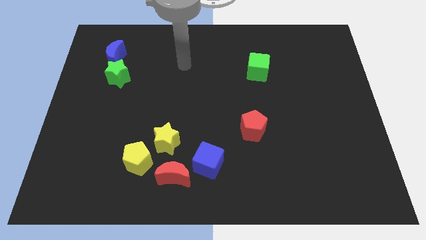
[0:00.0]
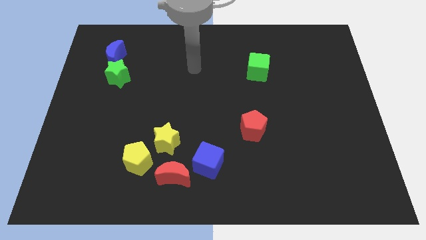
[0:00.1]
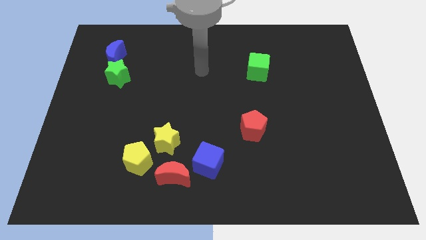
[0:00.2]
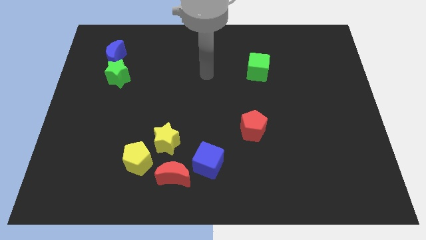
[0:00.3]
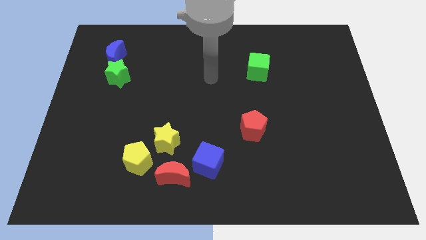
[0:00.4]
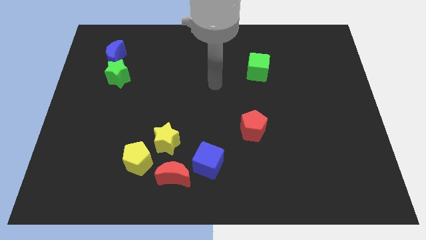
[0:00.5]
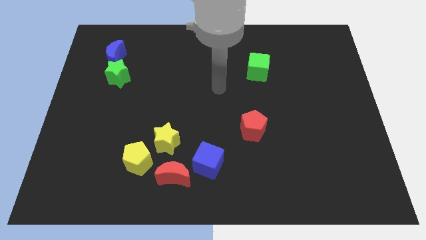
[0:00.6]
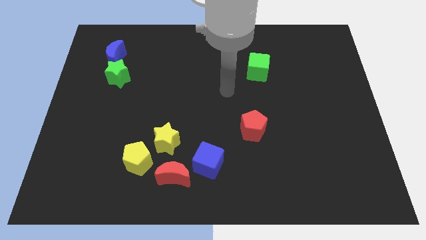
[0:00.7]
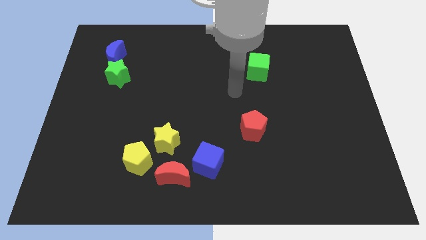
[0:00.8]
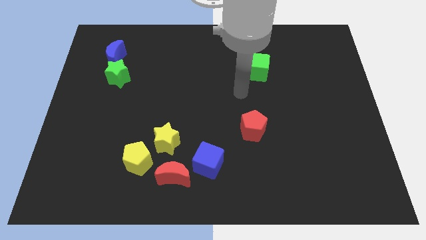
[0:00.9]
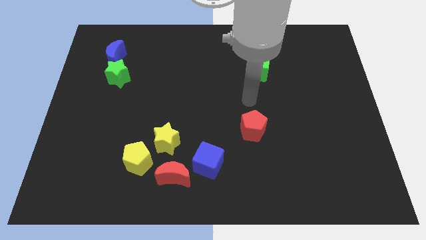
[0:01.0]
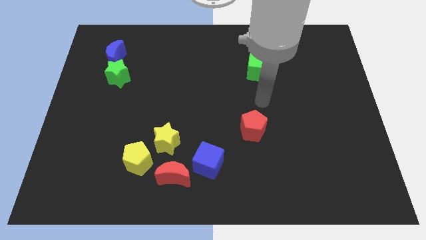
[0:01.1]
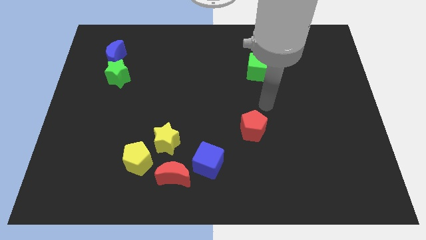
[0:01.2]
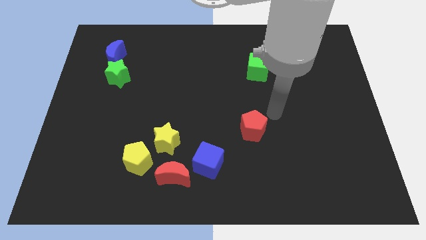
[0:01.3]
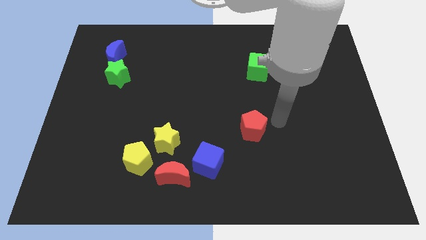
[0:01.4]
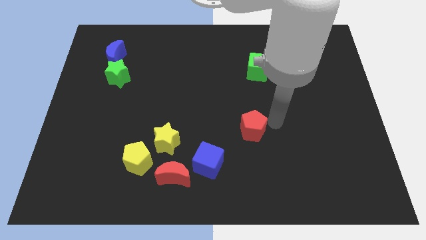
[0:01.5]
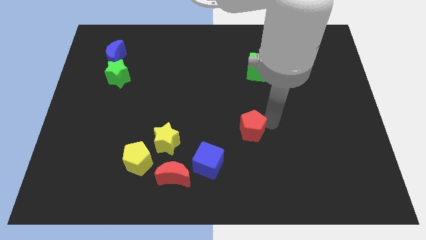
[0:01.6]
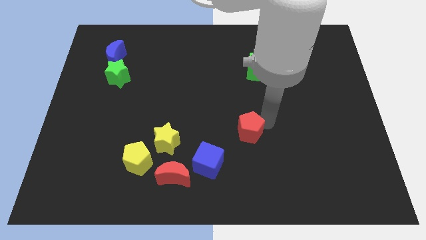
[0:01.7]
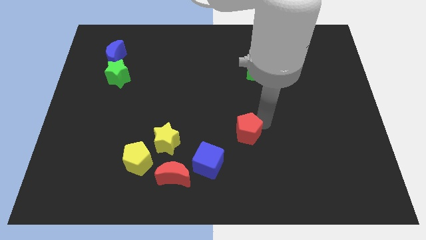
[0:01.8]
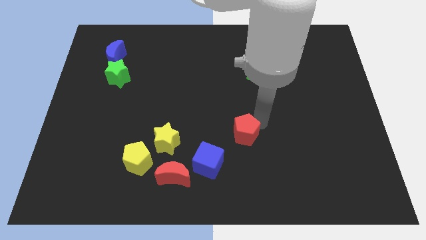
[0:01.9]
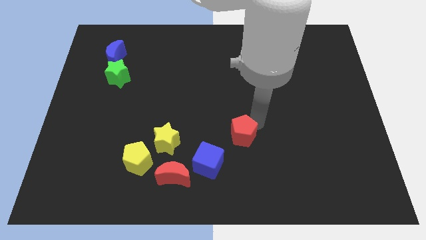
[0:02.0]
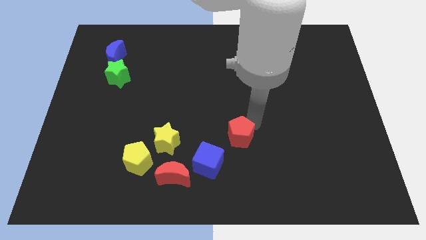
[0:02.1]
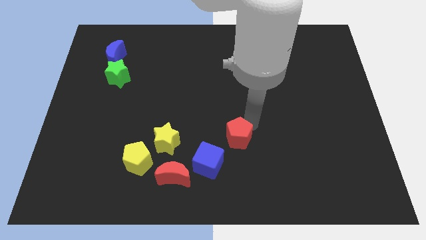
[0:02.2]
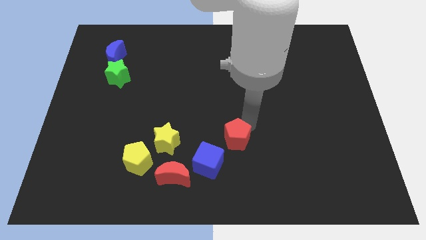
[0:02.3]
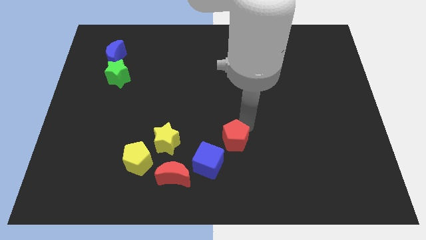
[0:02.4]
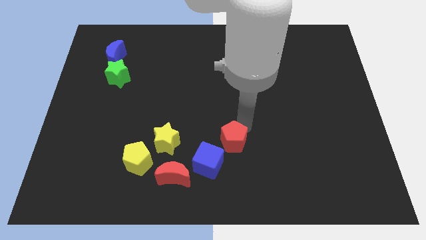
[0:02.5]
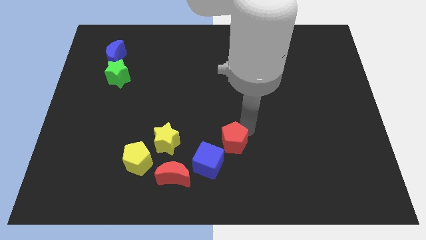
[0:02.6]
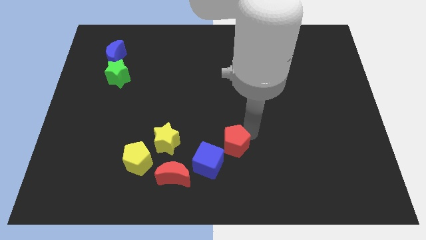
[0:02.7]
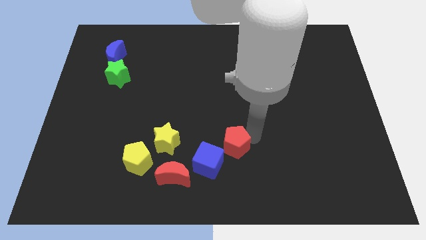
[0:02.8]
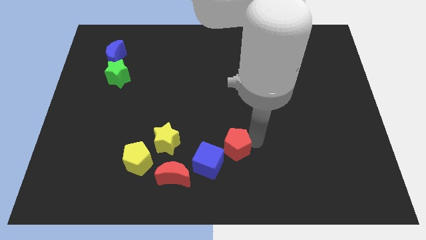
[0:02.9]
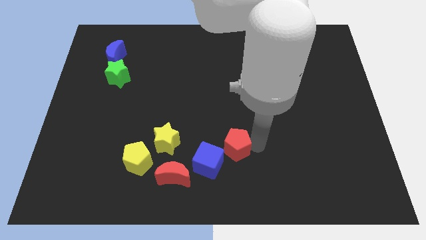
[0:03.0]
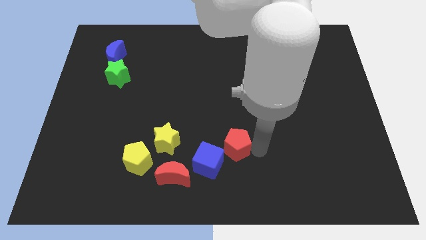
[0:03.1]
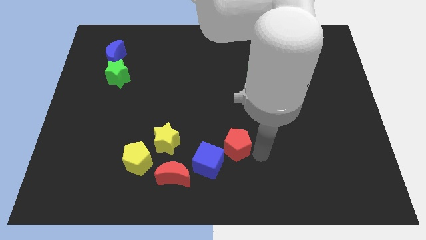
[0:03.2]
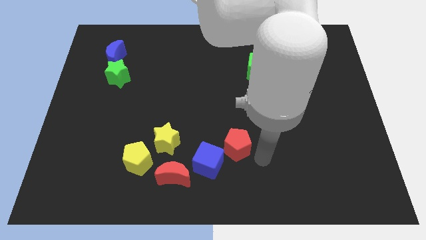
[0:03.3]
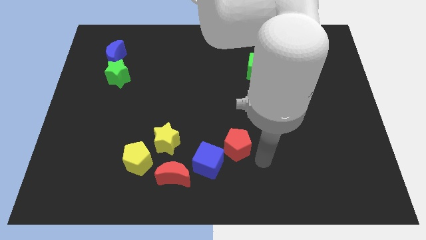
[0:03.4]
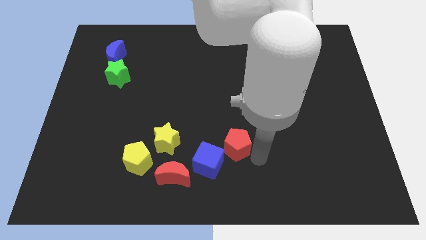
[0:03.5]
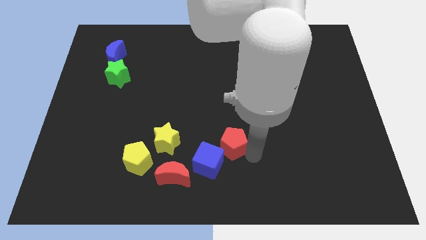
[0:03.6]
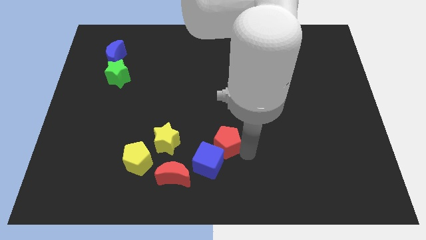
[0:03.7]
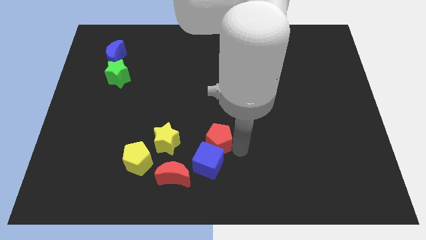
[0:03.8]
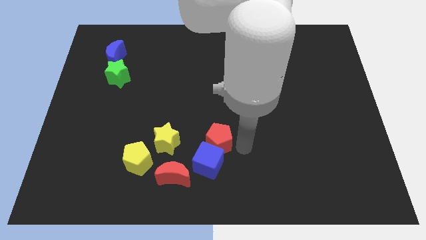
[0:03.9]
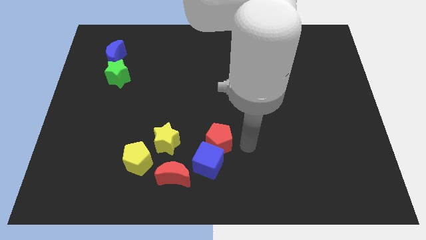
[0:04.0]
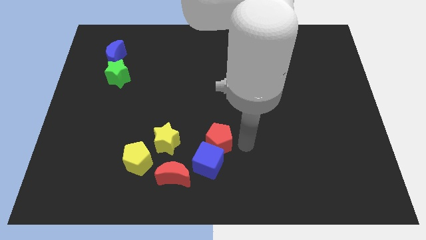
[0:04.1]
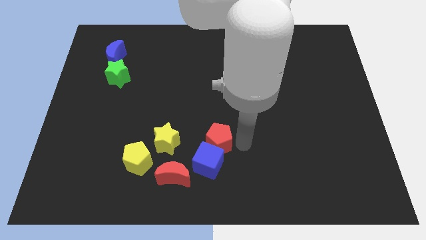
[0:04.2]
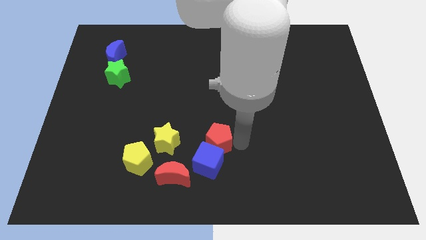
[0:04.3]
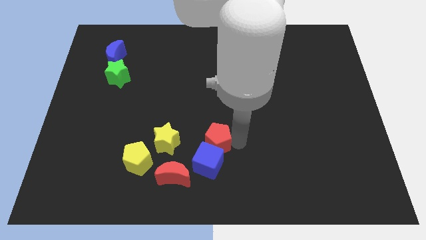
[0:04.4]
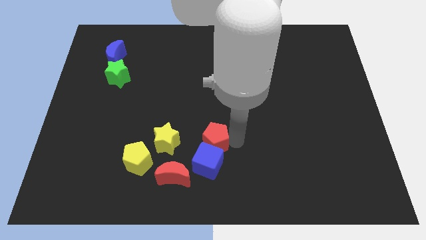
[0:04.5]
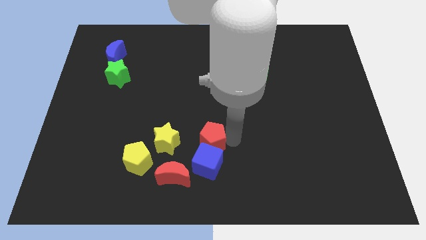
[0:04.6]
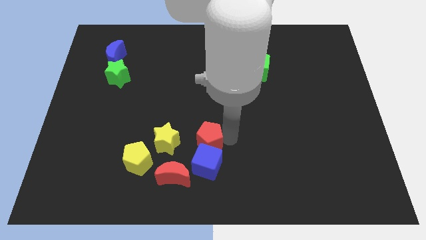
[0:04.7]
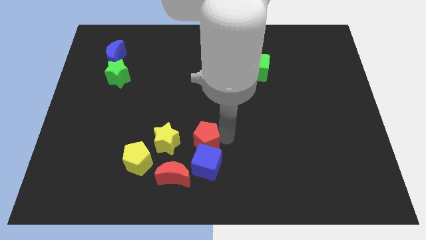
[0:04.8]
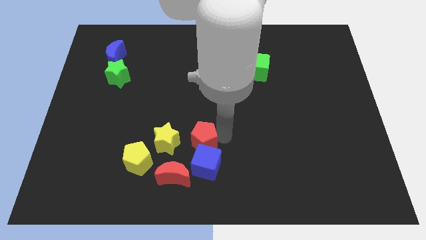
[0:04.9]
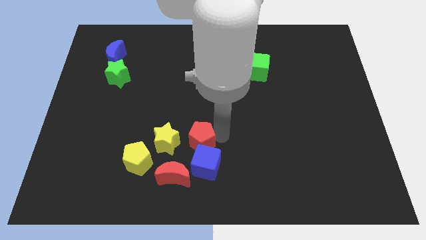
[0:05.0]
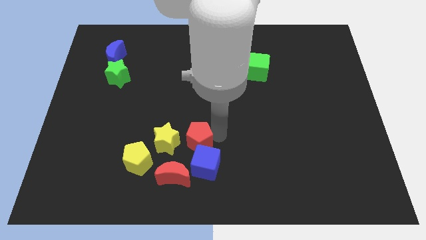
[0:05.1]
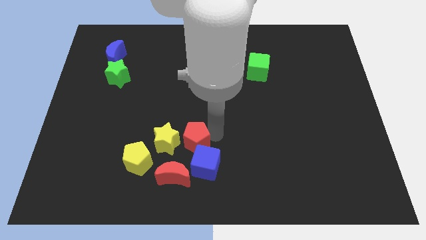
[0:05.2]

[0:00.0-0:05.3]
move the red pentagon close to the yellow star

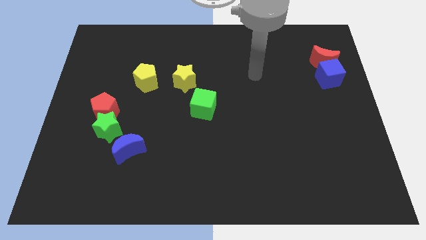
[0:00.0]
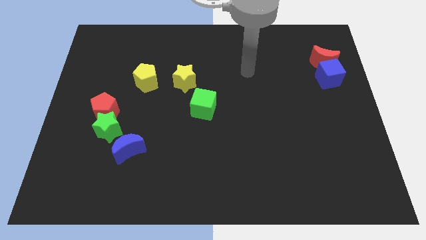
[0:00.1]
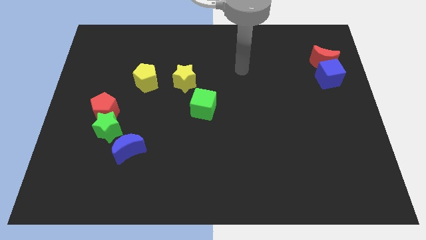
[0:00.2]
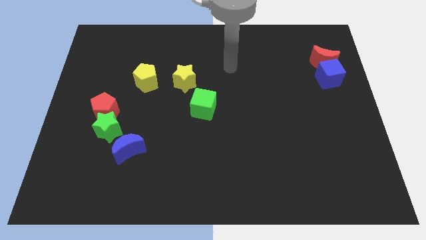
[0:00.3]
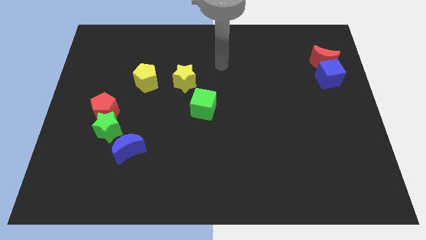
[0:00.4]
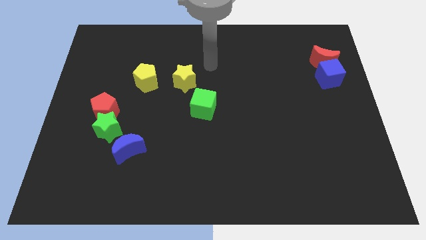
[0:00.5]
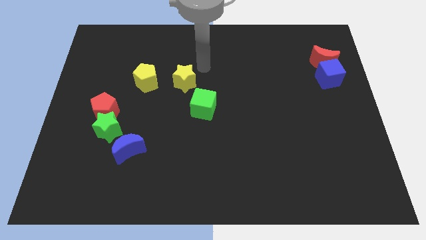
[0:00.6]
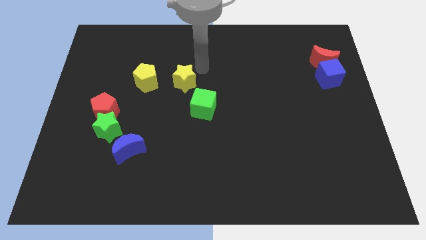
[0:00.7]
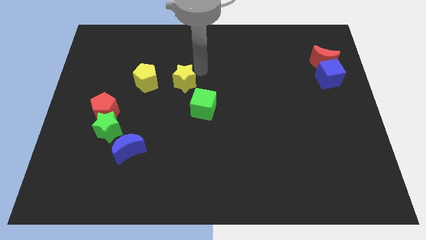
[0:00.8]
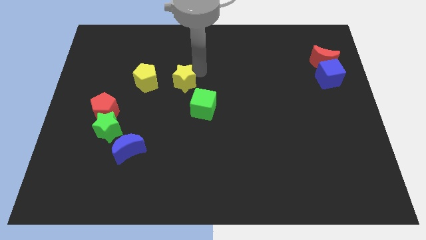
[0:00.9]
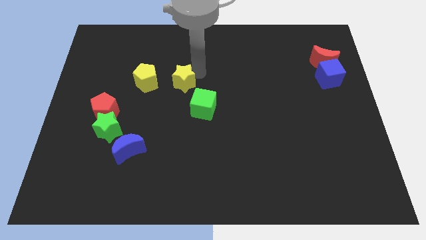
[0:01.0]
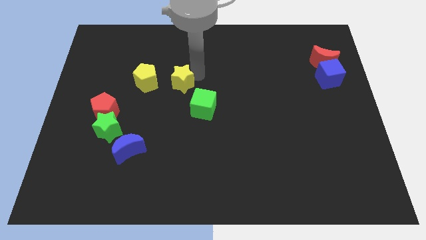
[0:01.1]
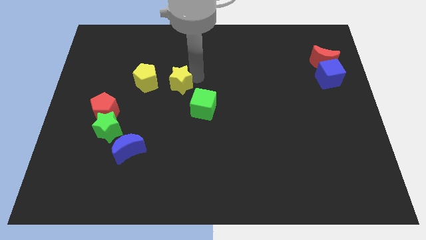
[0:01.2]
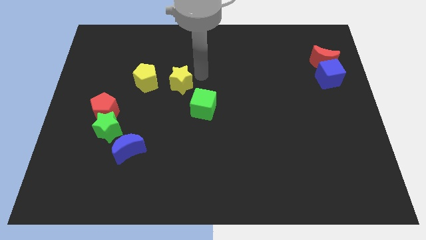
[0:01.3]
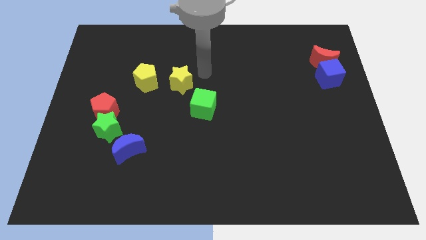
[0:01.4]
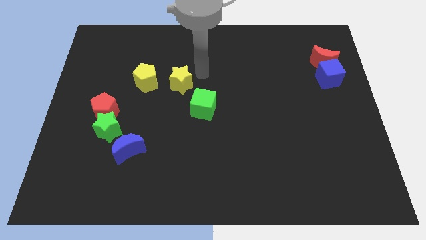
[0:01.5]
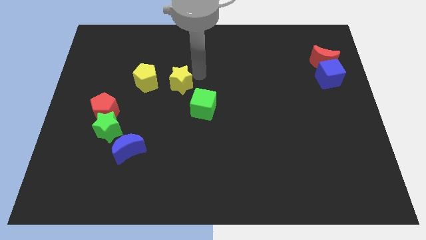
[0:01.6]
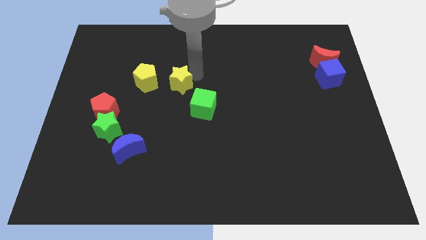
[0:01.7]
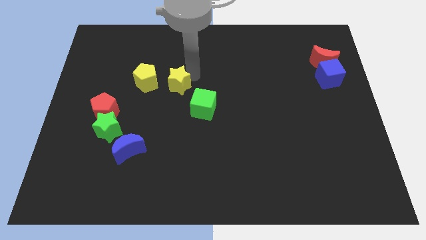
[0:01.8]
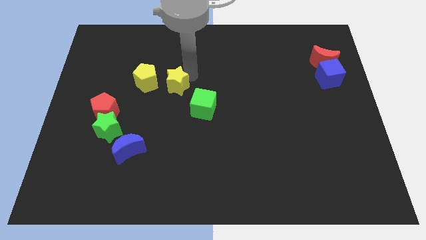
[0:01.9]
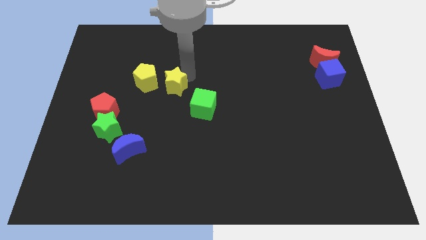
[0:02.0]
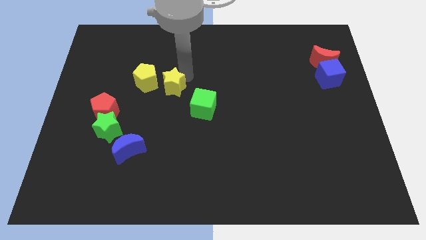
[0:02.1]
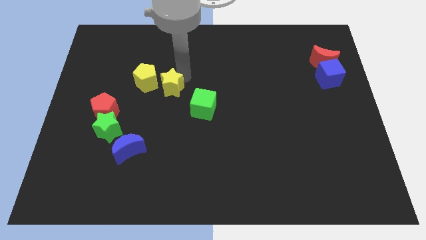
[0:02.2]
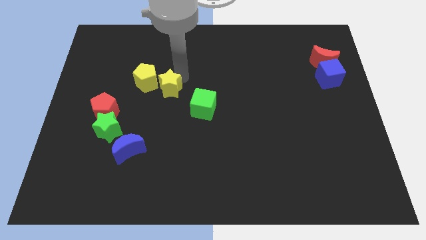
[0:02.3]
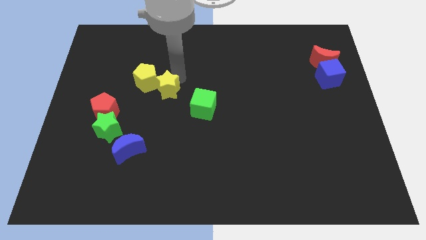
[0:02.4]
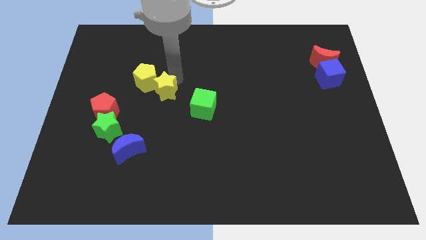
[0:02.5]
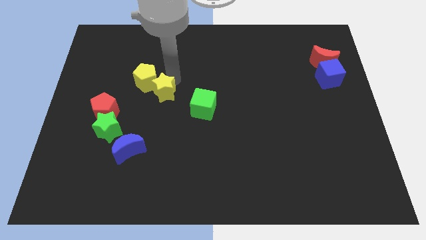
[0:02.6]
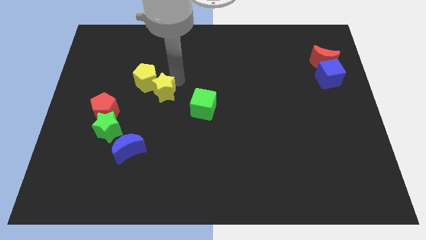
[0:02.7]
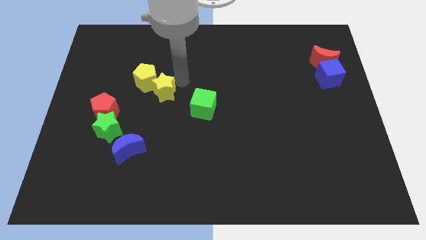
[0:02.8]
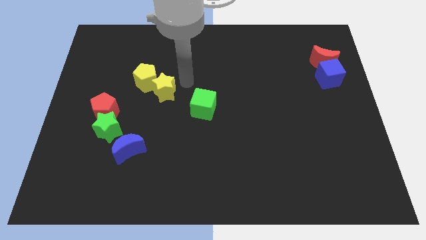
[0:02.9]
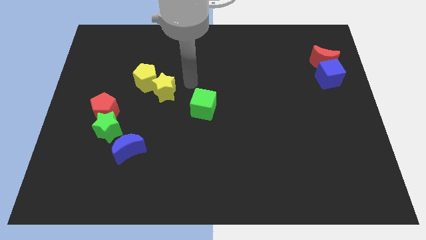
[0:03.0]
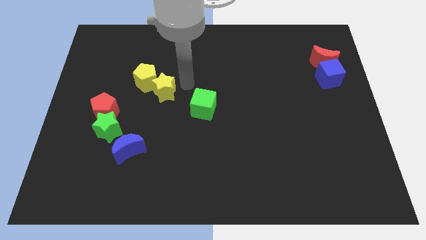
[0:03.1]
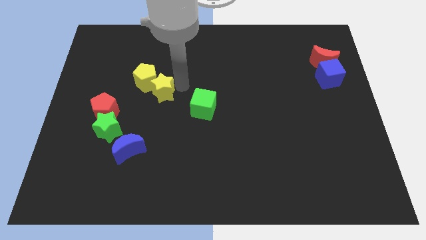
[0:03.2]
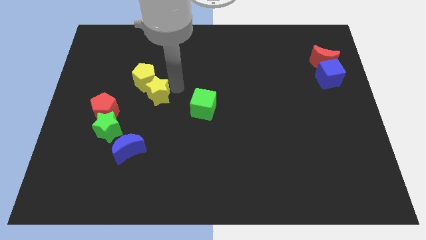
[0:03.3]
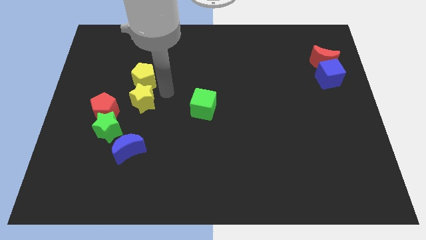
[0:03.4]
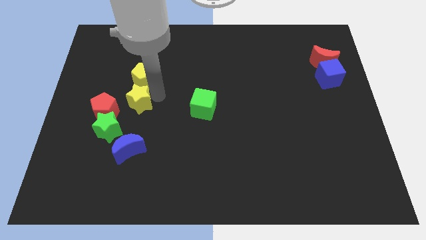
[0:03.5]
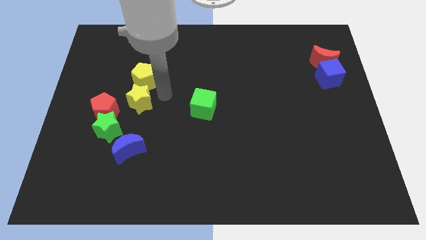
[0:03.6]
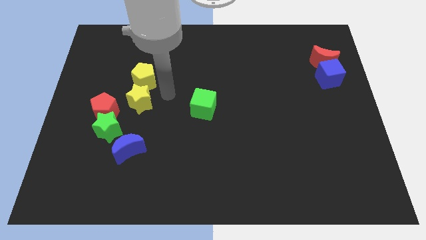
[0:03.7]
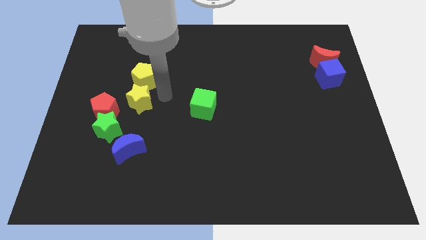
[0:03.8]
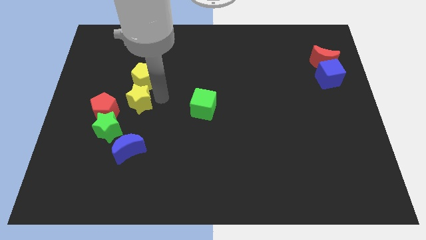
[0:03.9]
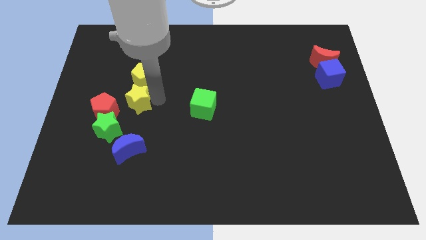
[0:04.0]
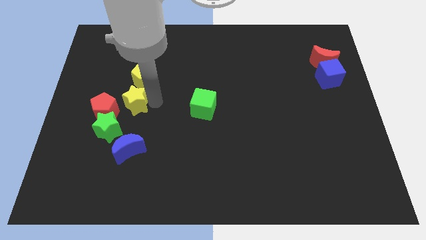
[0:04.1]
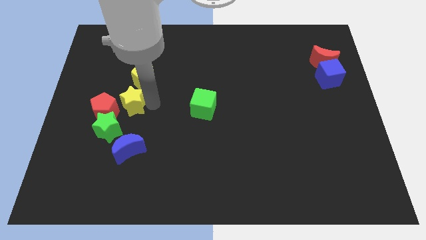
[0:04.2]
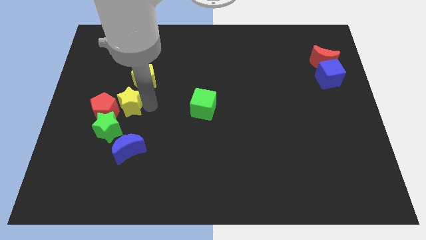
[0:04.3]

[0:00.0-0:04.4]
push the yellow star to the red pentagon
